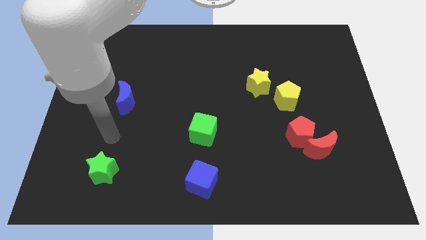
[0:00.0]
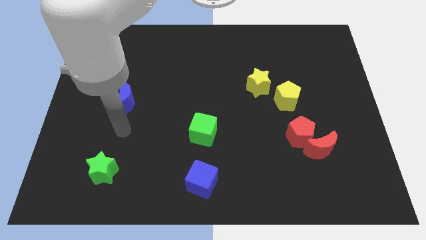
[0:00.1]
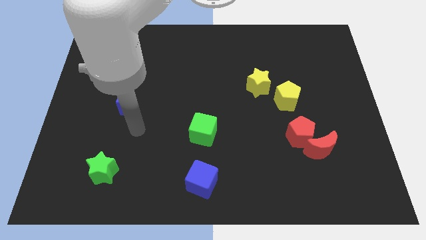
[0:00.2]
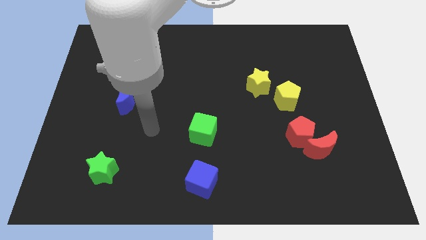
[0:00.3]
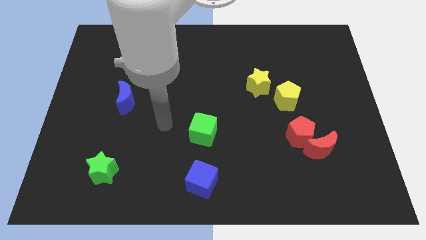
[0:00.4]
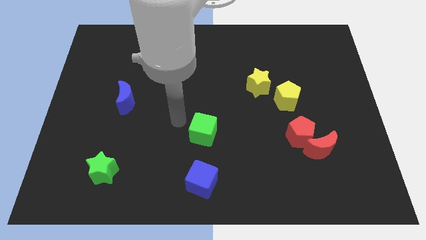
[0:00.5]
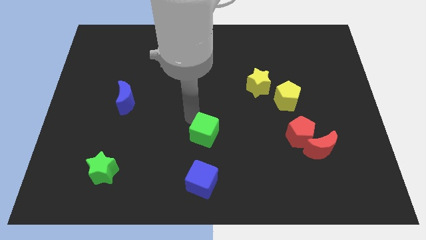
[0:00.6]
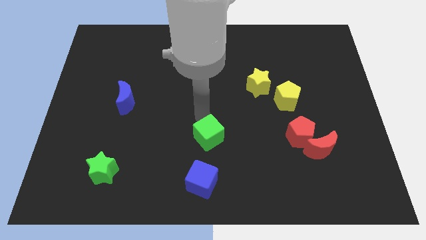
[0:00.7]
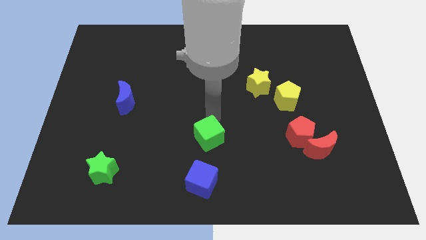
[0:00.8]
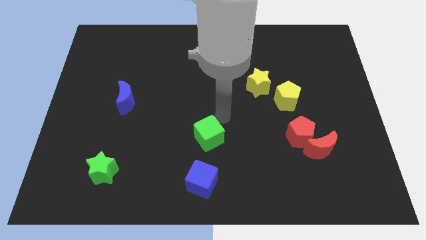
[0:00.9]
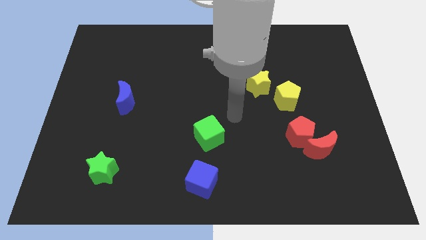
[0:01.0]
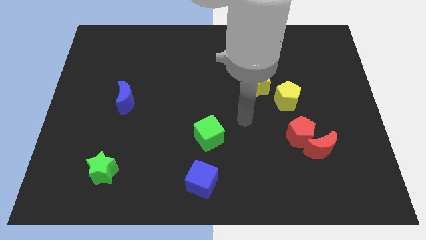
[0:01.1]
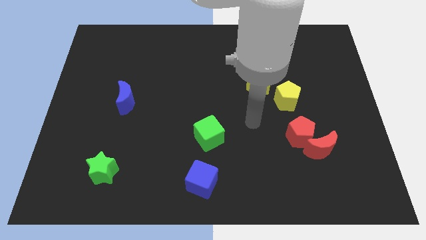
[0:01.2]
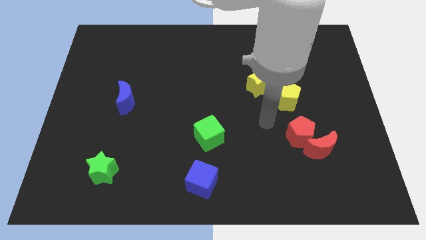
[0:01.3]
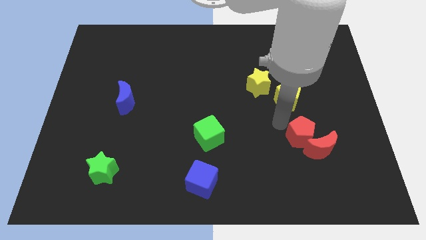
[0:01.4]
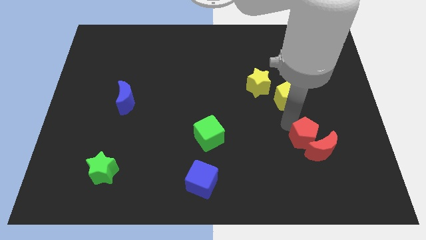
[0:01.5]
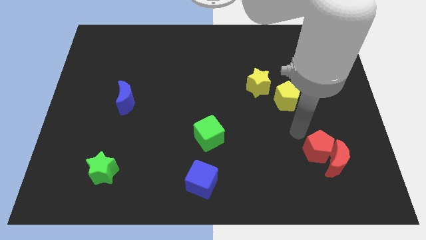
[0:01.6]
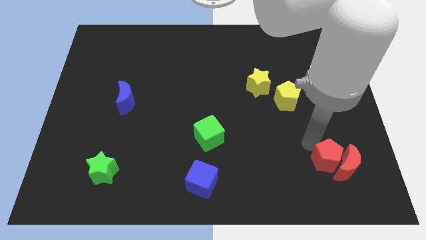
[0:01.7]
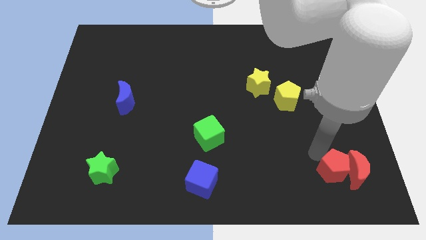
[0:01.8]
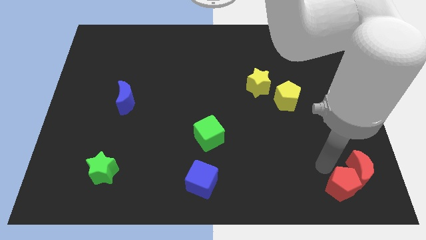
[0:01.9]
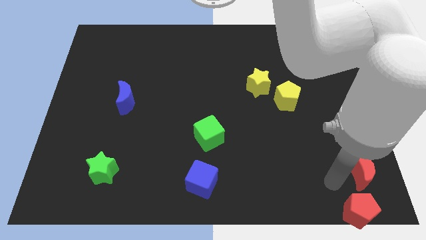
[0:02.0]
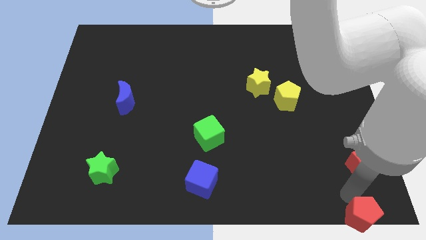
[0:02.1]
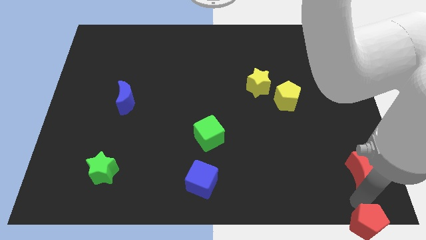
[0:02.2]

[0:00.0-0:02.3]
pull the red moon apart from the red pentagon

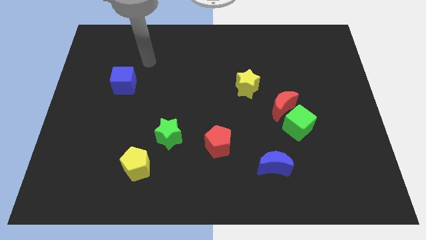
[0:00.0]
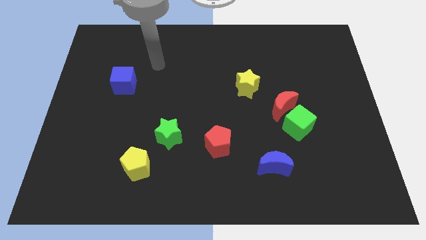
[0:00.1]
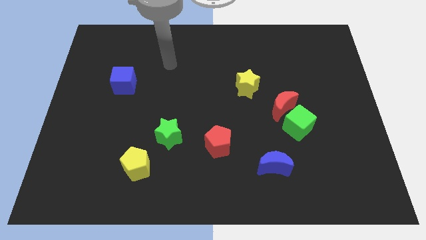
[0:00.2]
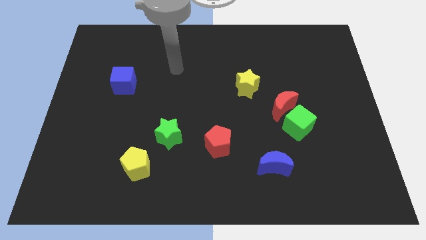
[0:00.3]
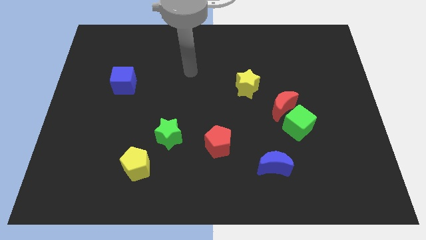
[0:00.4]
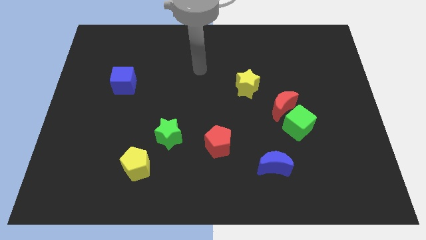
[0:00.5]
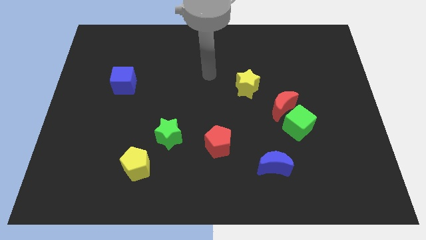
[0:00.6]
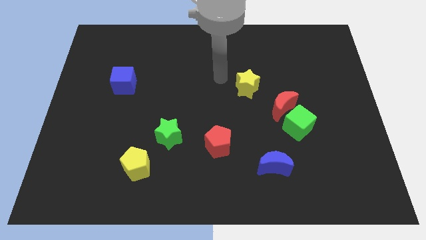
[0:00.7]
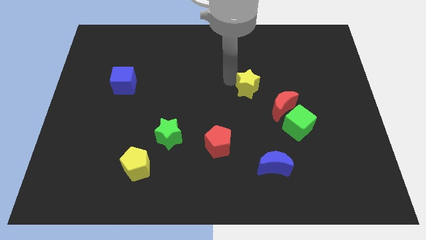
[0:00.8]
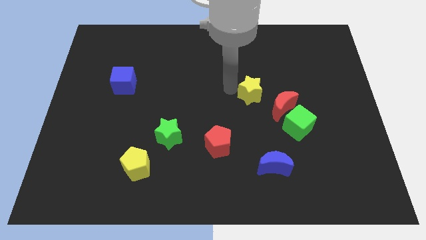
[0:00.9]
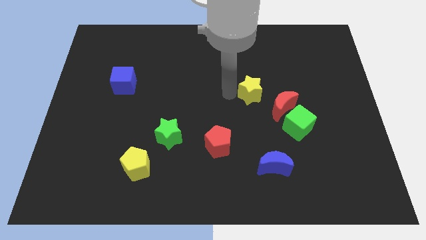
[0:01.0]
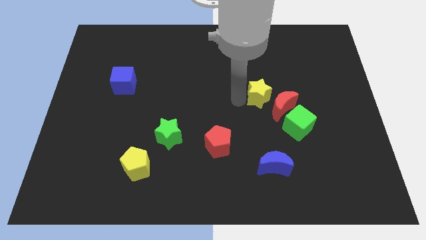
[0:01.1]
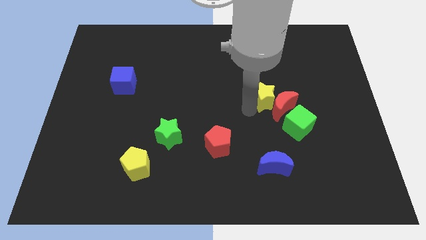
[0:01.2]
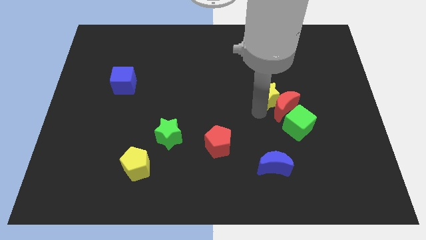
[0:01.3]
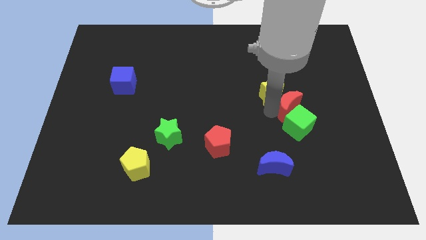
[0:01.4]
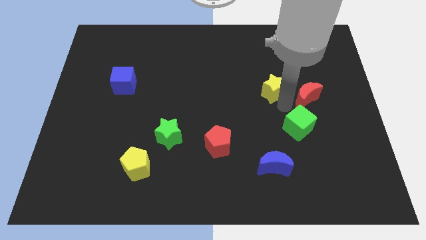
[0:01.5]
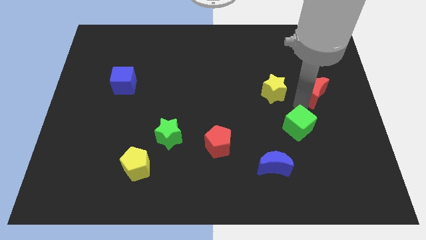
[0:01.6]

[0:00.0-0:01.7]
separate the green cube from the red moon

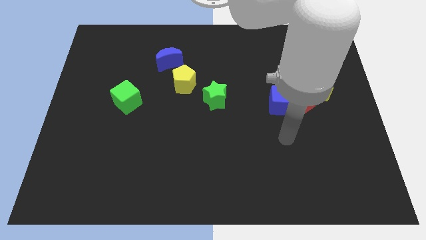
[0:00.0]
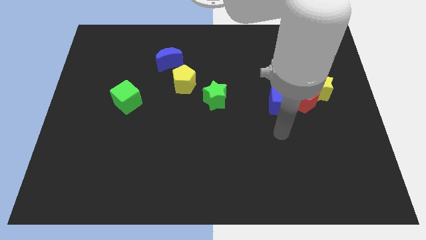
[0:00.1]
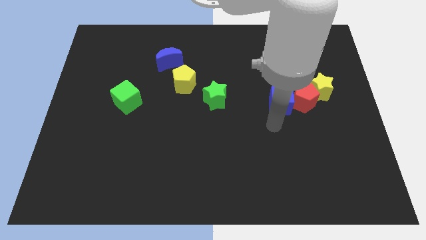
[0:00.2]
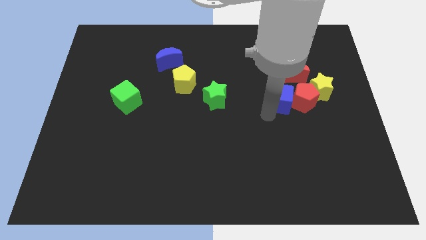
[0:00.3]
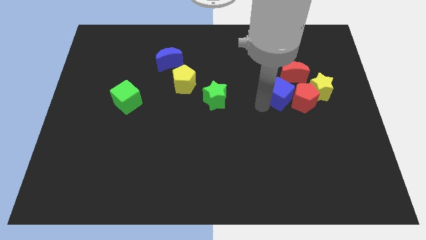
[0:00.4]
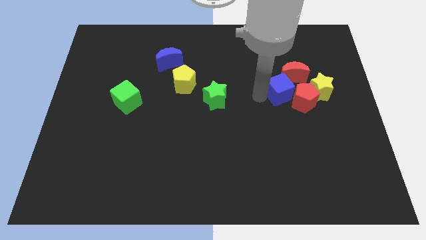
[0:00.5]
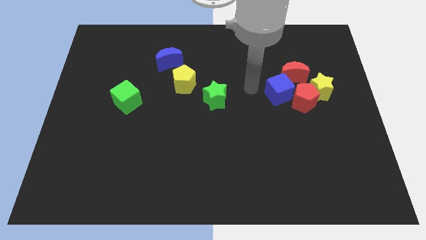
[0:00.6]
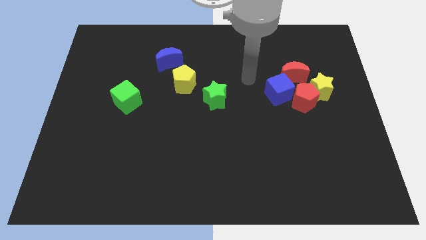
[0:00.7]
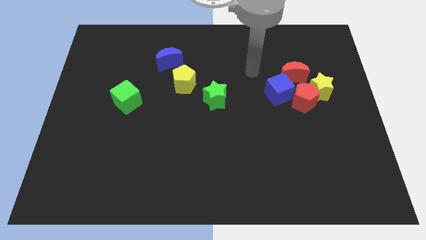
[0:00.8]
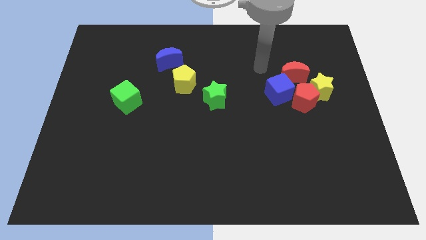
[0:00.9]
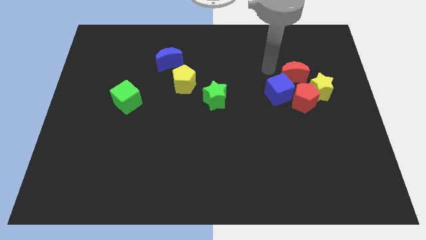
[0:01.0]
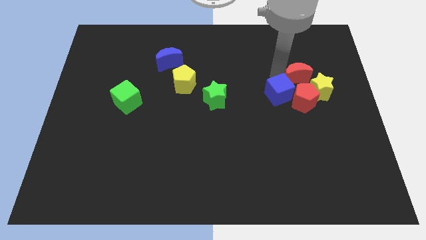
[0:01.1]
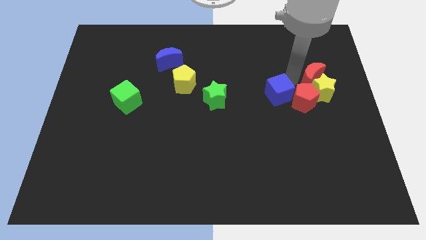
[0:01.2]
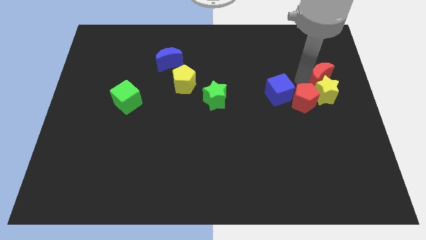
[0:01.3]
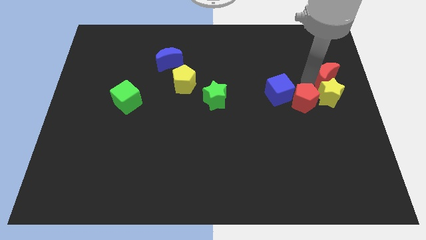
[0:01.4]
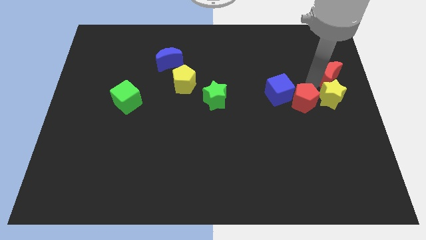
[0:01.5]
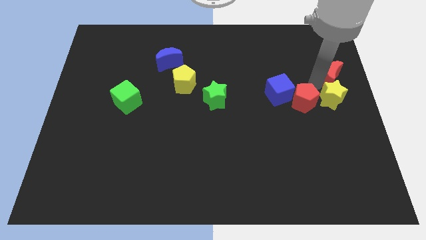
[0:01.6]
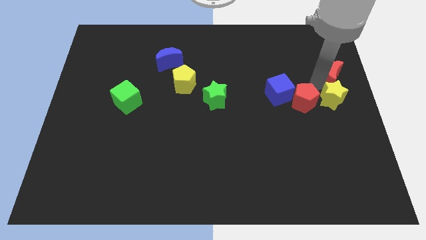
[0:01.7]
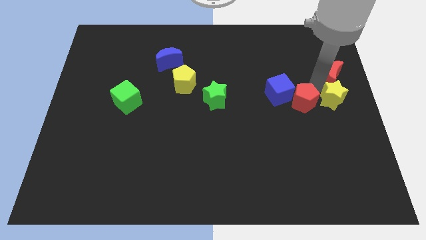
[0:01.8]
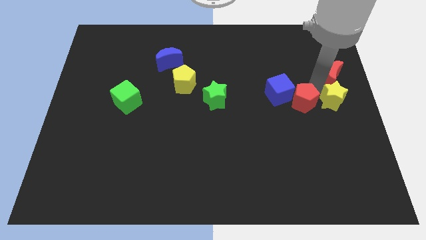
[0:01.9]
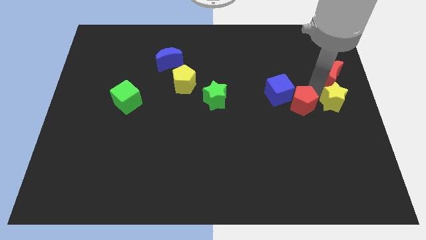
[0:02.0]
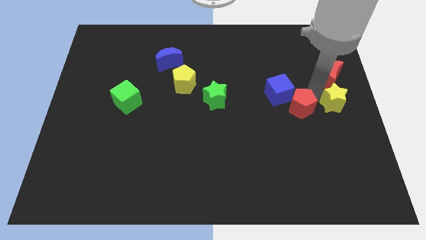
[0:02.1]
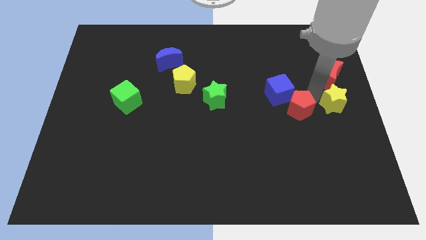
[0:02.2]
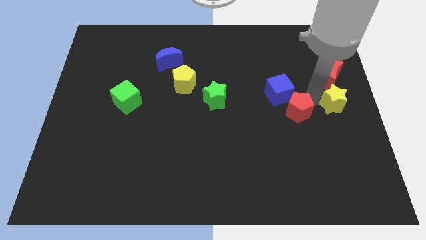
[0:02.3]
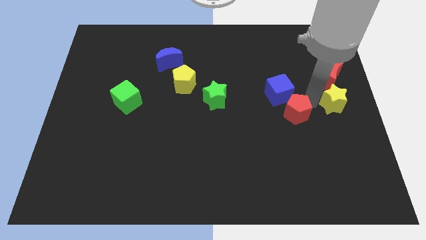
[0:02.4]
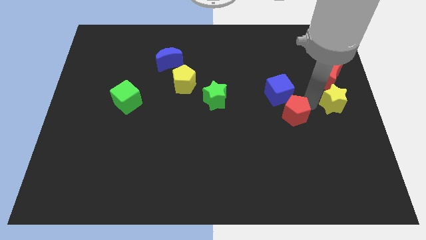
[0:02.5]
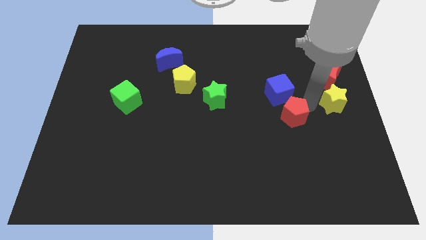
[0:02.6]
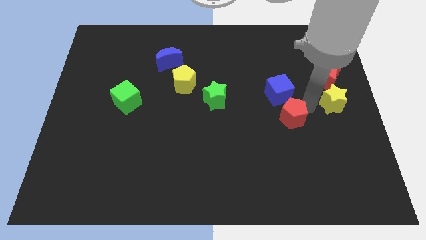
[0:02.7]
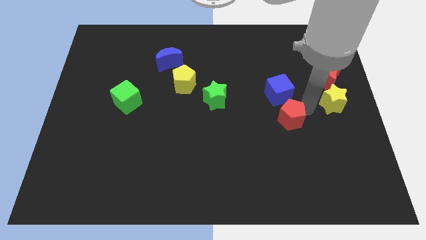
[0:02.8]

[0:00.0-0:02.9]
pull the red pentagon apart from the yellow star, blue cube, and red moon

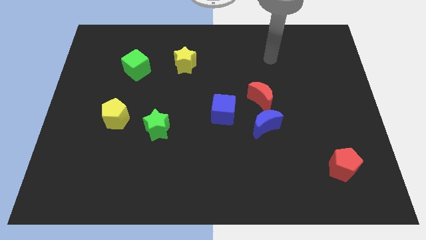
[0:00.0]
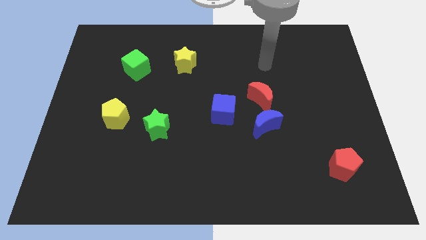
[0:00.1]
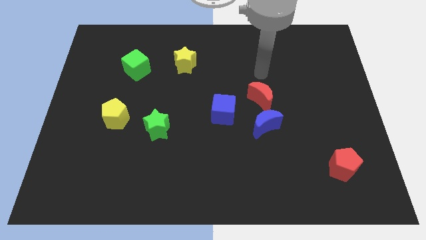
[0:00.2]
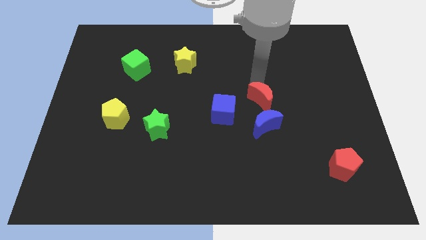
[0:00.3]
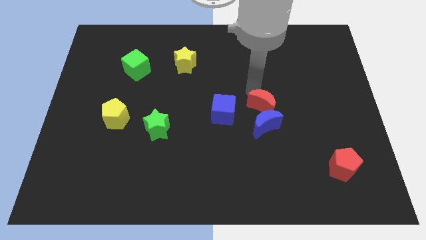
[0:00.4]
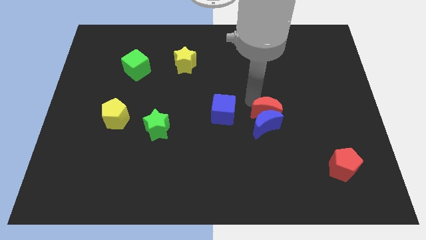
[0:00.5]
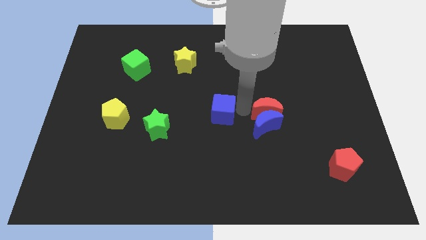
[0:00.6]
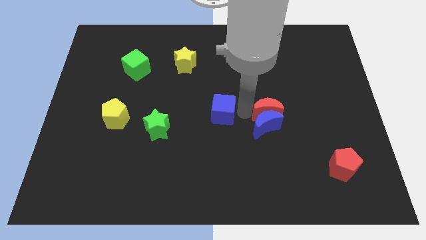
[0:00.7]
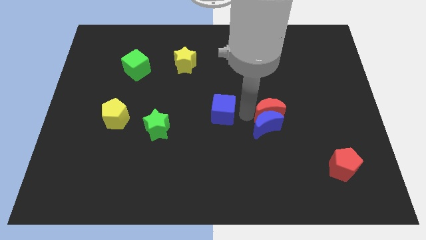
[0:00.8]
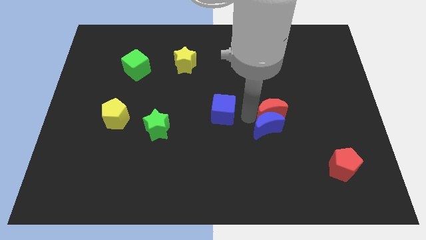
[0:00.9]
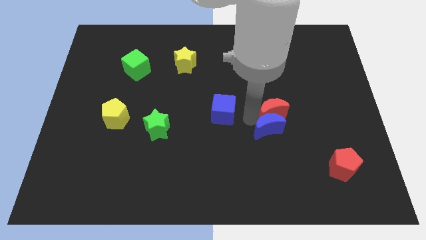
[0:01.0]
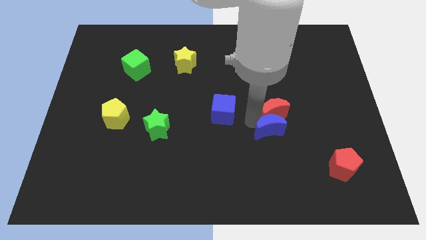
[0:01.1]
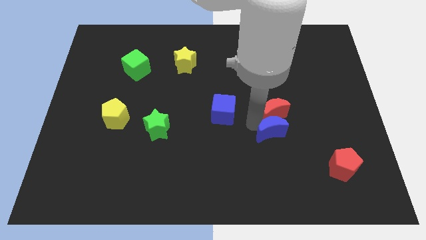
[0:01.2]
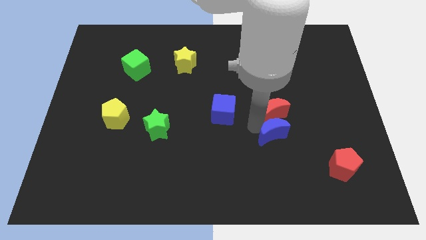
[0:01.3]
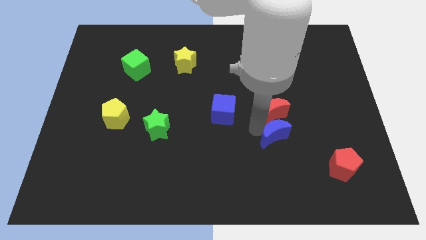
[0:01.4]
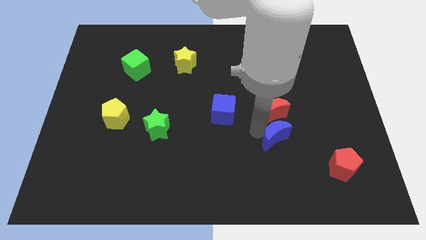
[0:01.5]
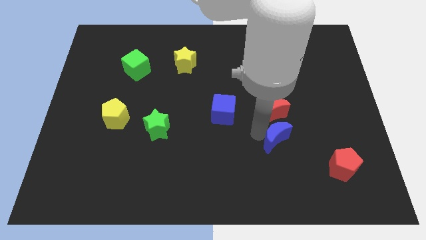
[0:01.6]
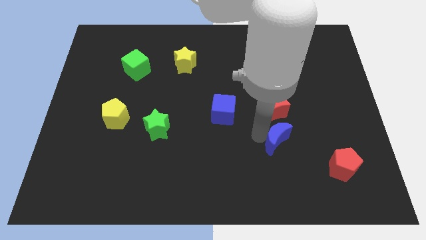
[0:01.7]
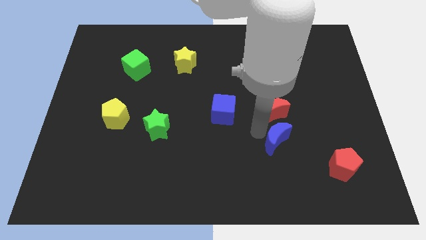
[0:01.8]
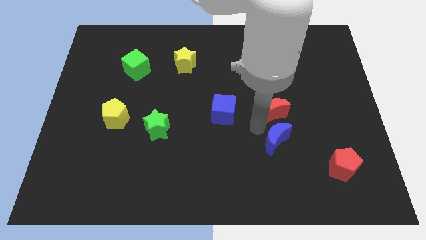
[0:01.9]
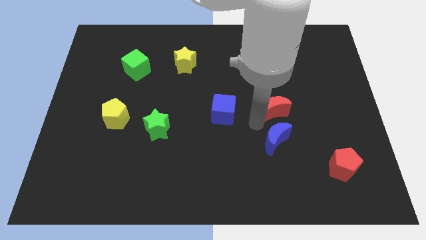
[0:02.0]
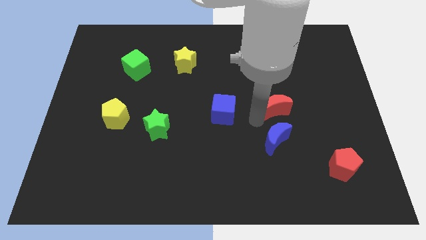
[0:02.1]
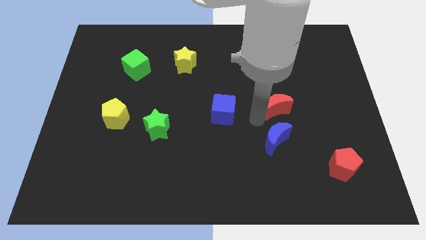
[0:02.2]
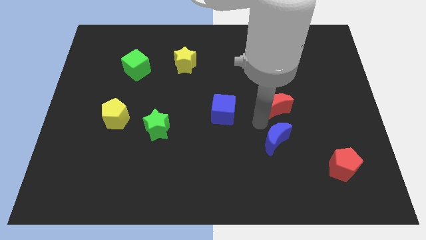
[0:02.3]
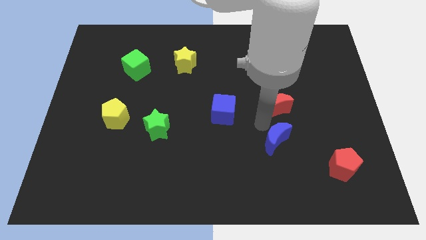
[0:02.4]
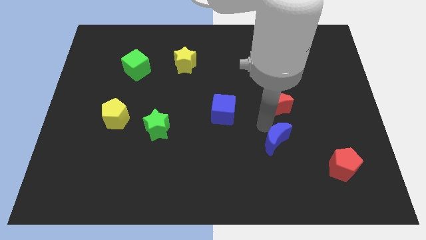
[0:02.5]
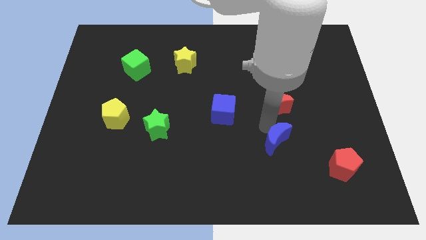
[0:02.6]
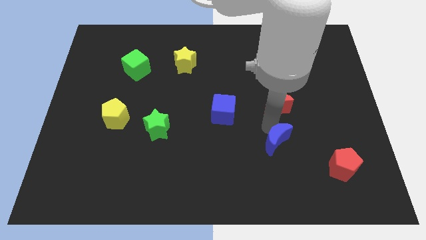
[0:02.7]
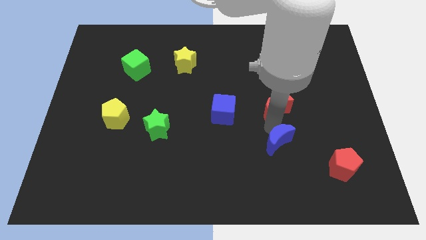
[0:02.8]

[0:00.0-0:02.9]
move the blue moon away from the red moon and blue cube
